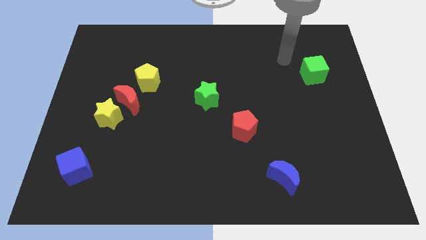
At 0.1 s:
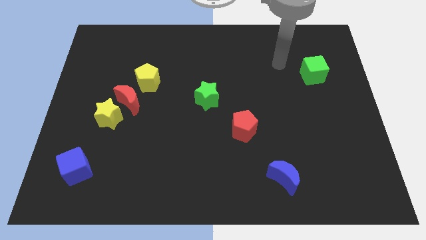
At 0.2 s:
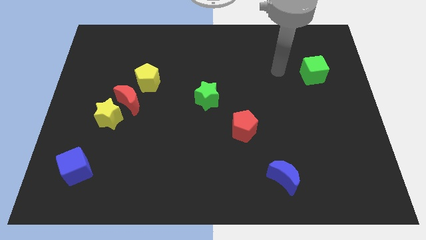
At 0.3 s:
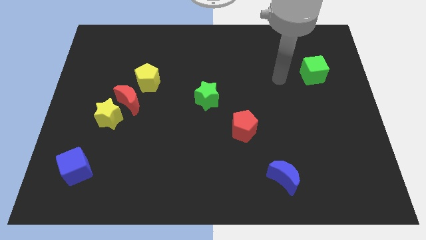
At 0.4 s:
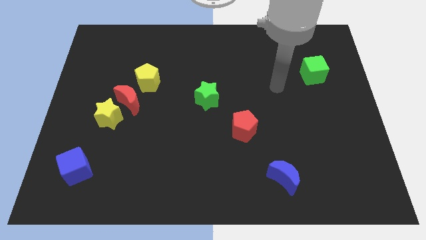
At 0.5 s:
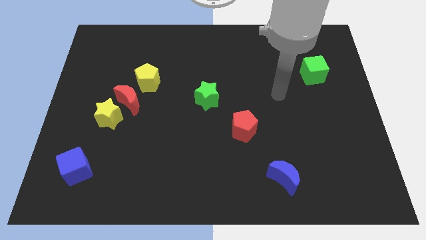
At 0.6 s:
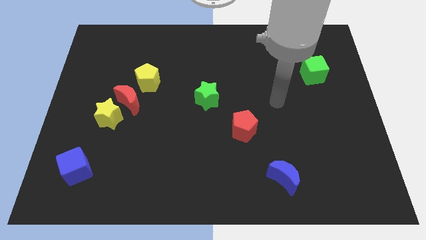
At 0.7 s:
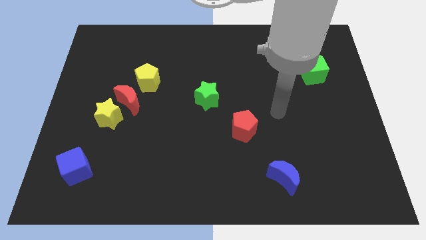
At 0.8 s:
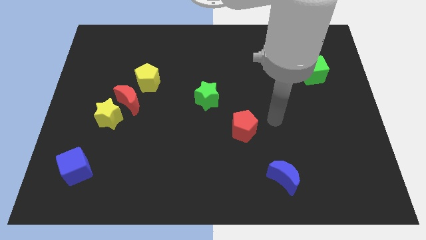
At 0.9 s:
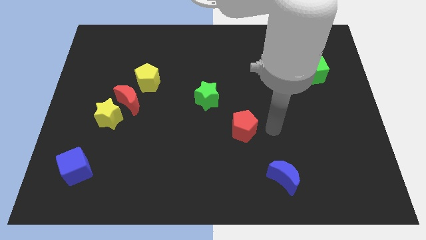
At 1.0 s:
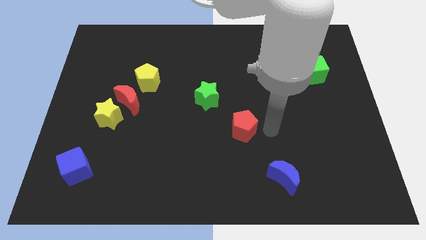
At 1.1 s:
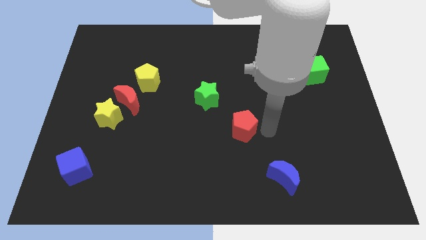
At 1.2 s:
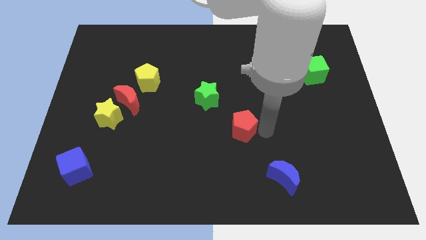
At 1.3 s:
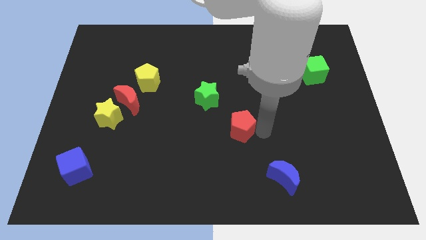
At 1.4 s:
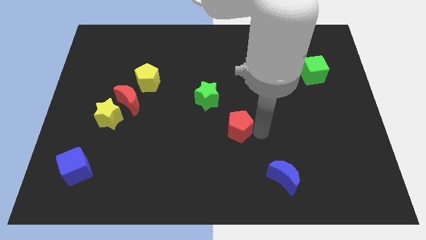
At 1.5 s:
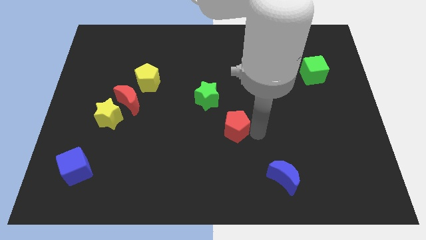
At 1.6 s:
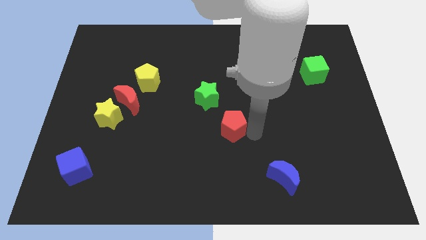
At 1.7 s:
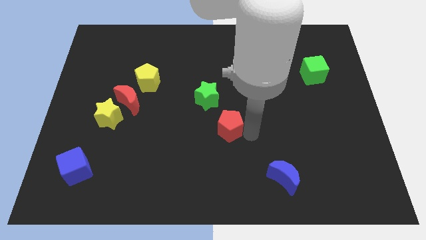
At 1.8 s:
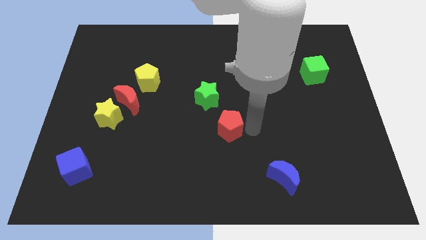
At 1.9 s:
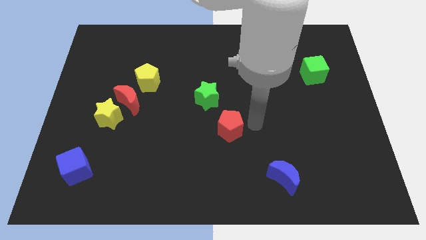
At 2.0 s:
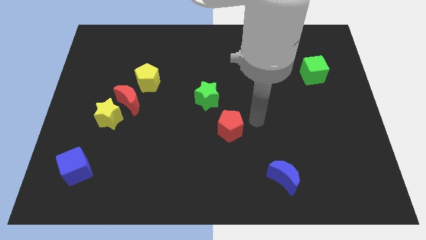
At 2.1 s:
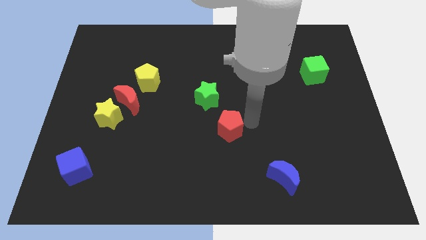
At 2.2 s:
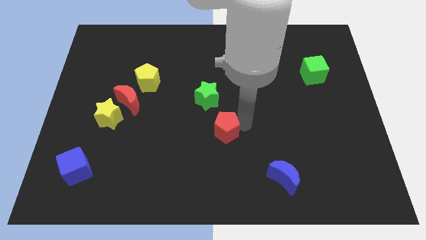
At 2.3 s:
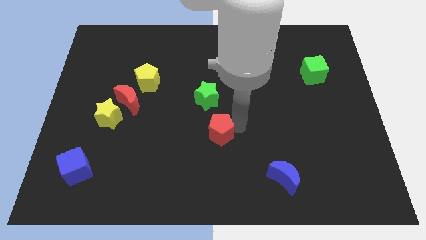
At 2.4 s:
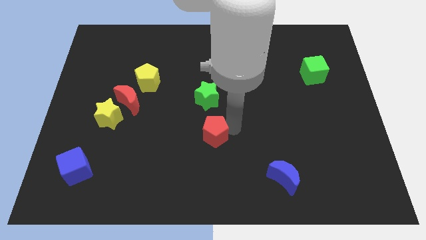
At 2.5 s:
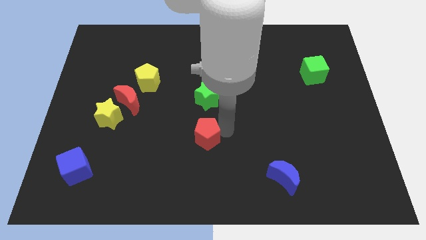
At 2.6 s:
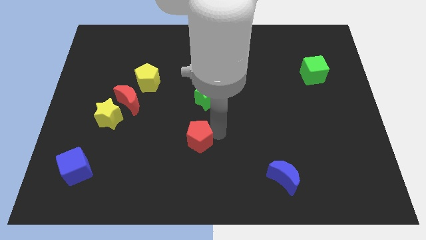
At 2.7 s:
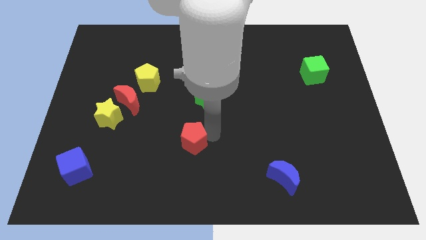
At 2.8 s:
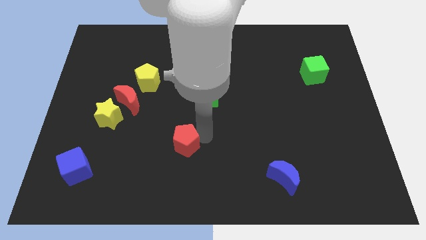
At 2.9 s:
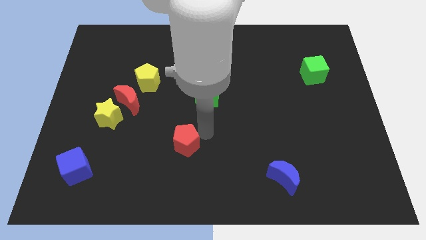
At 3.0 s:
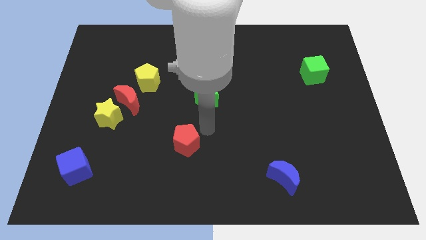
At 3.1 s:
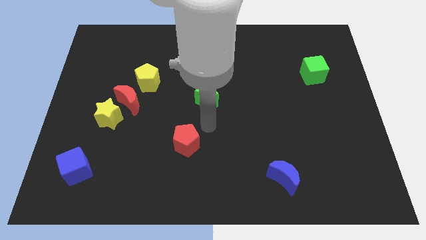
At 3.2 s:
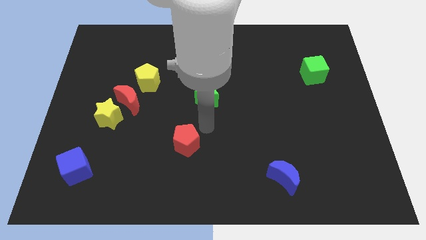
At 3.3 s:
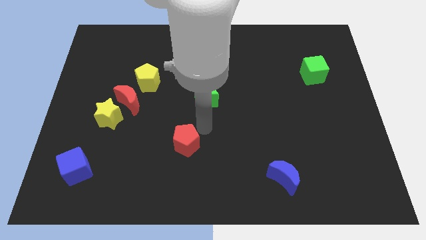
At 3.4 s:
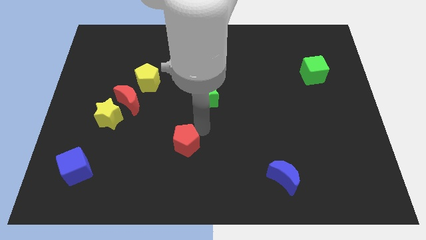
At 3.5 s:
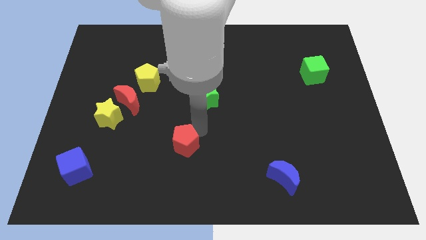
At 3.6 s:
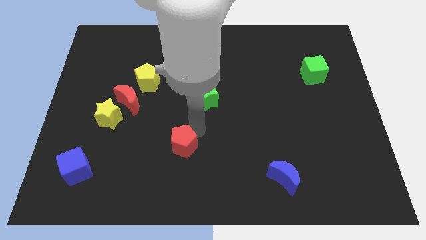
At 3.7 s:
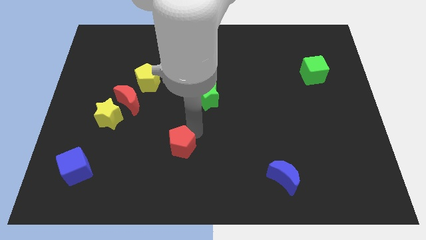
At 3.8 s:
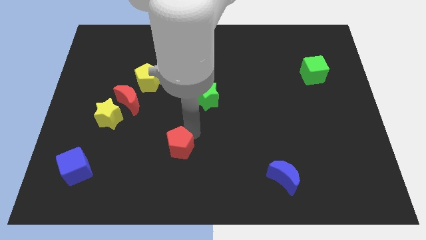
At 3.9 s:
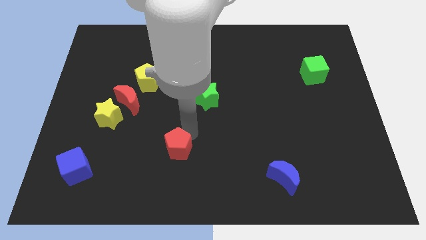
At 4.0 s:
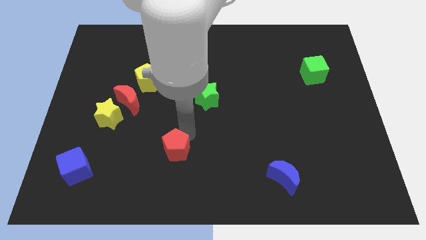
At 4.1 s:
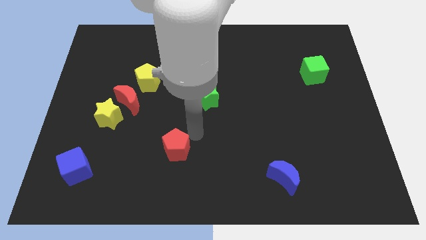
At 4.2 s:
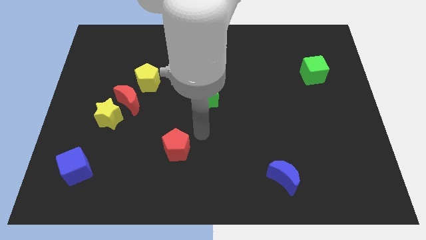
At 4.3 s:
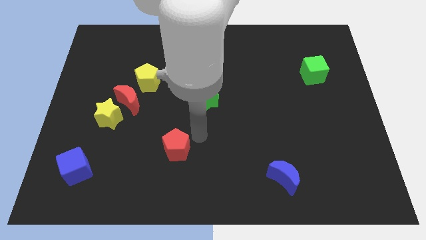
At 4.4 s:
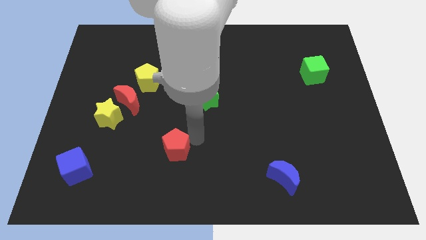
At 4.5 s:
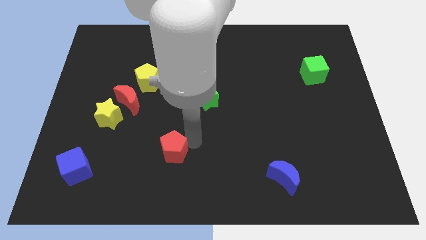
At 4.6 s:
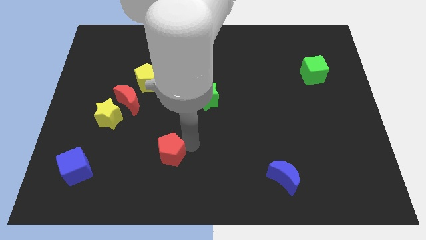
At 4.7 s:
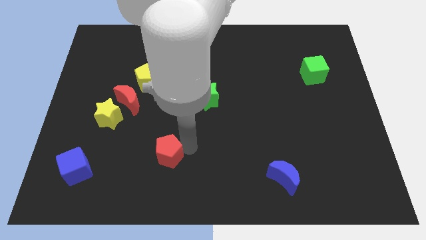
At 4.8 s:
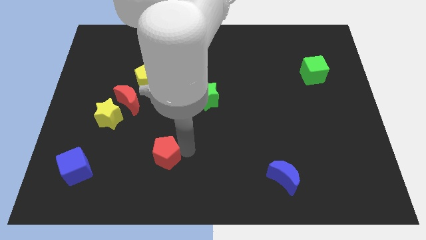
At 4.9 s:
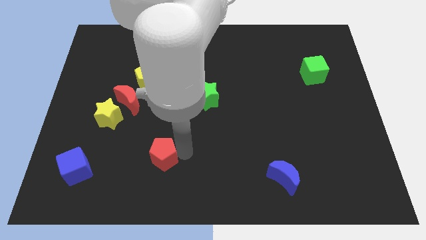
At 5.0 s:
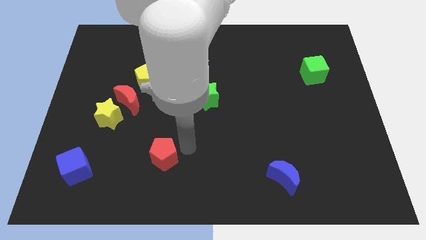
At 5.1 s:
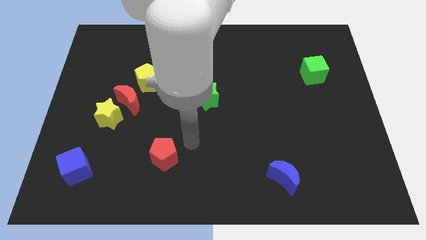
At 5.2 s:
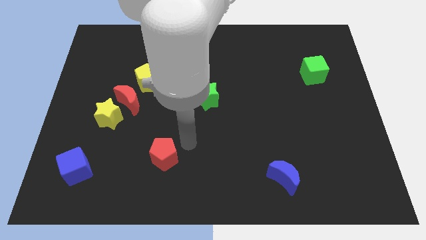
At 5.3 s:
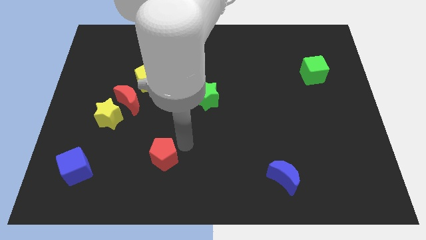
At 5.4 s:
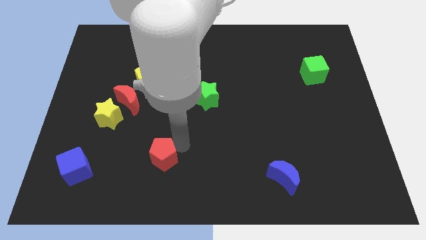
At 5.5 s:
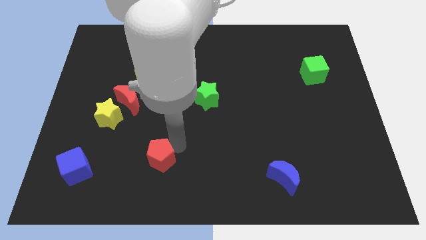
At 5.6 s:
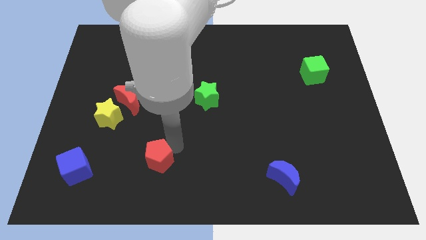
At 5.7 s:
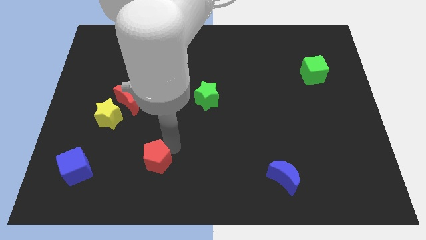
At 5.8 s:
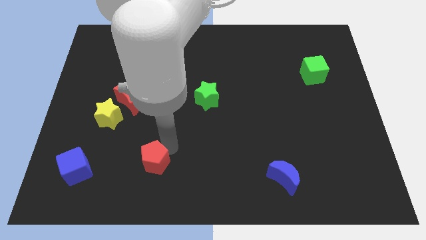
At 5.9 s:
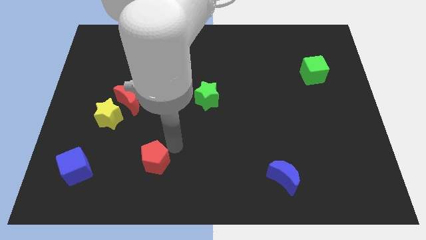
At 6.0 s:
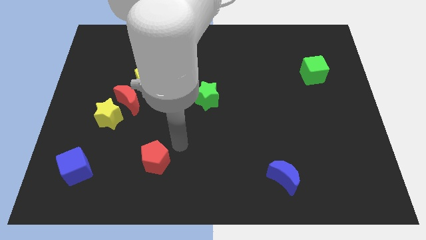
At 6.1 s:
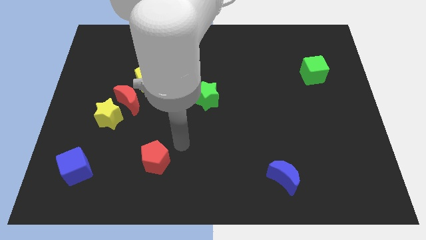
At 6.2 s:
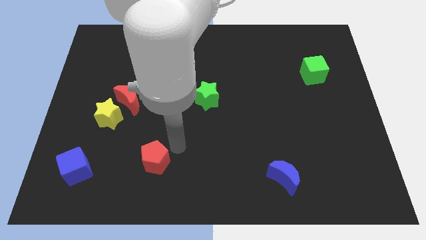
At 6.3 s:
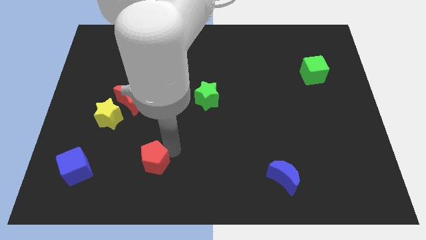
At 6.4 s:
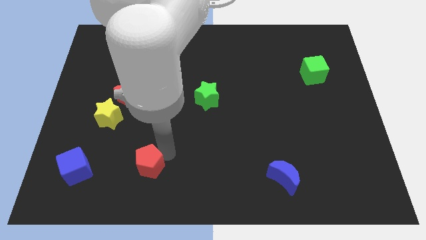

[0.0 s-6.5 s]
put the red pentagon to the right side of the blue cube
